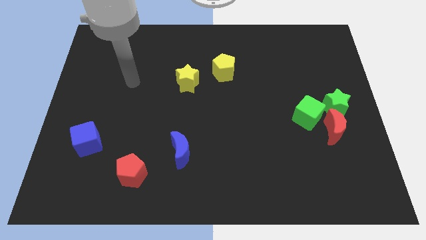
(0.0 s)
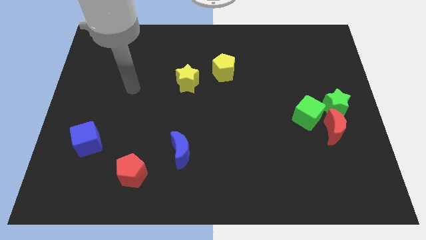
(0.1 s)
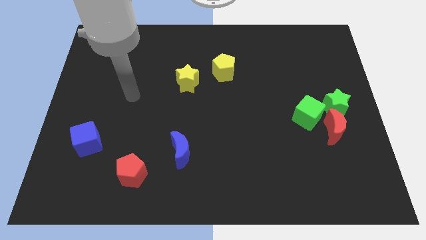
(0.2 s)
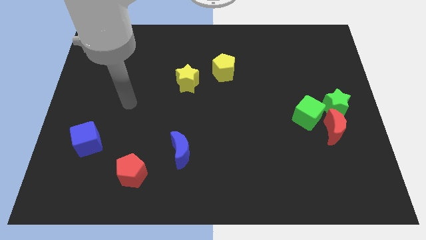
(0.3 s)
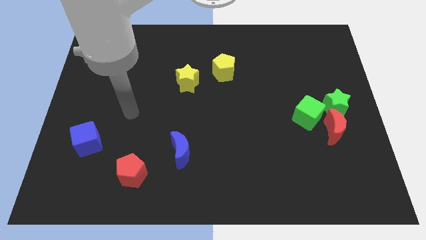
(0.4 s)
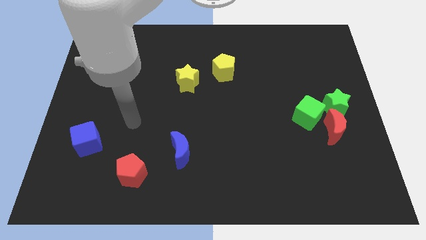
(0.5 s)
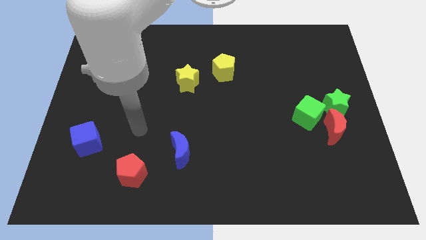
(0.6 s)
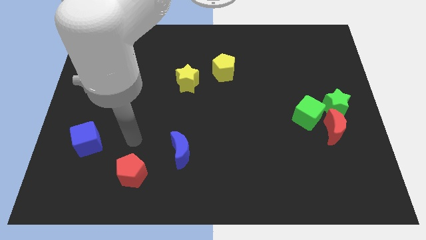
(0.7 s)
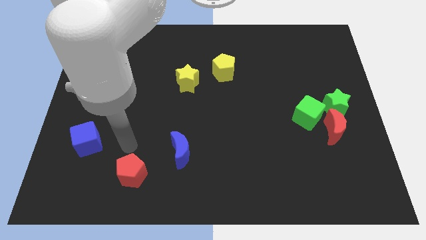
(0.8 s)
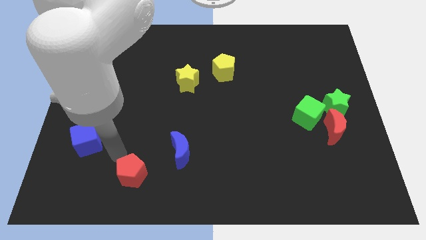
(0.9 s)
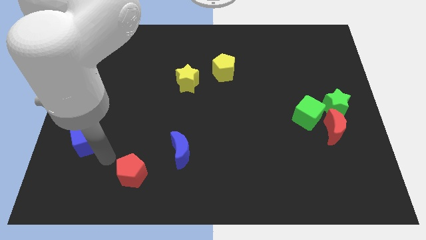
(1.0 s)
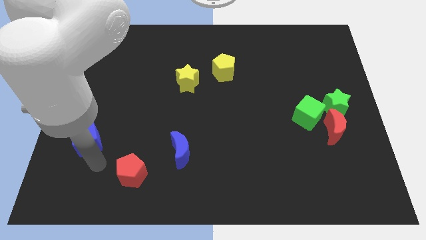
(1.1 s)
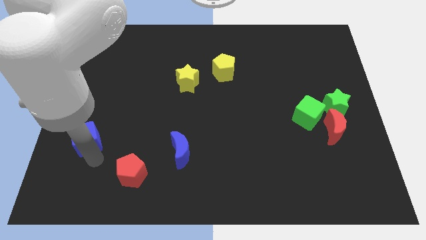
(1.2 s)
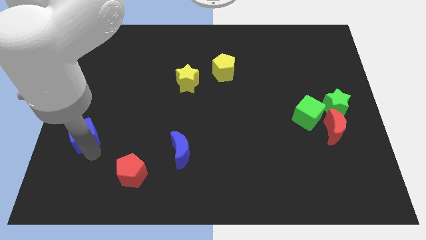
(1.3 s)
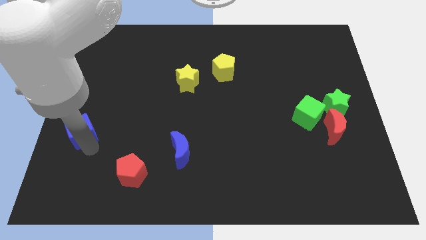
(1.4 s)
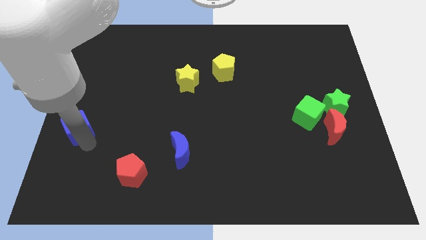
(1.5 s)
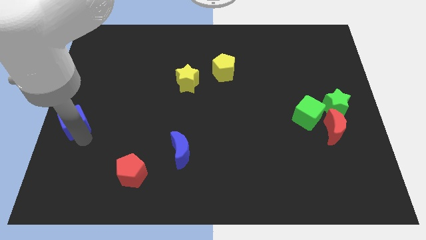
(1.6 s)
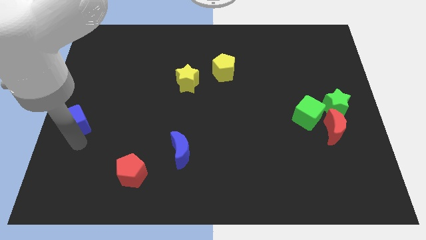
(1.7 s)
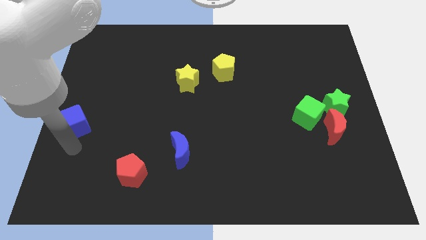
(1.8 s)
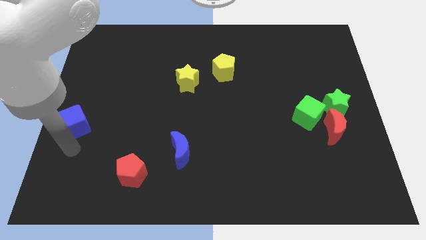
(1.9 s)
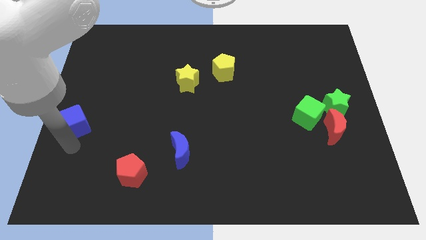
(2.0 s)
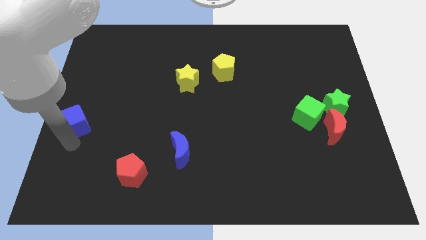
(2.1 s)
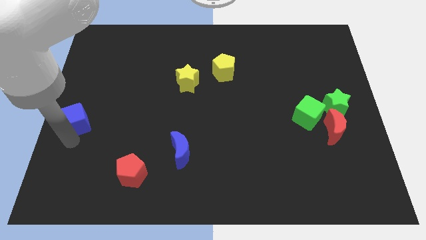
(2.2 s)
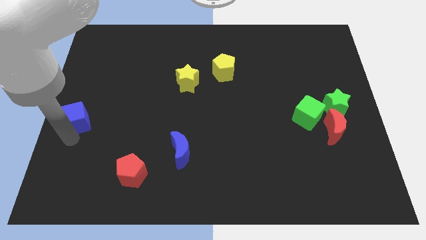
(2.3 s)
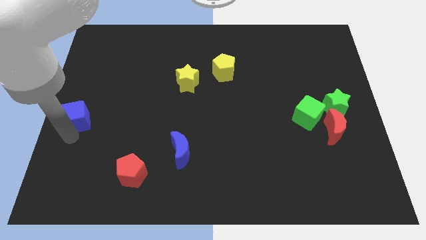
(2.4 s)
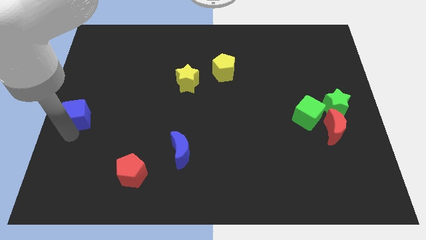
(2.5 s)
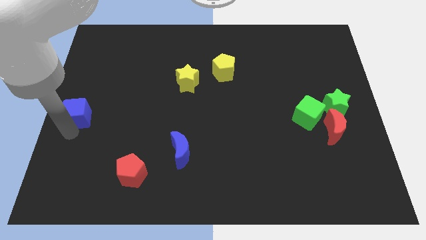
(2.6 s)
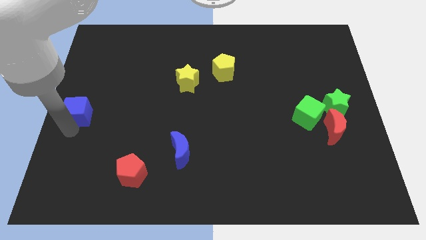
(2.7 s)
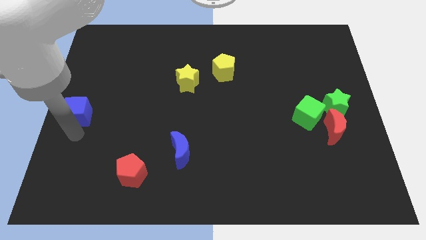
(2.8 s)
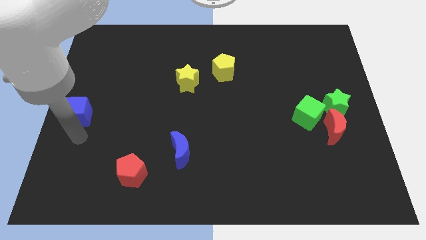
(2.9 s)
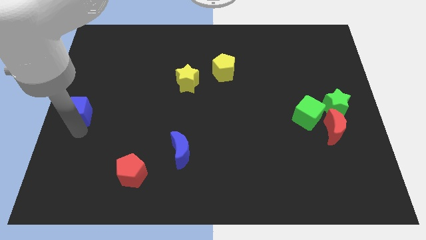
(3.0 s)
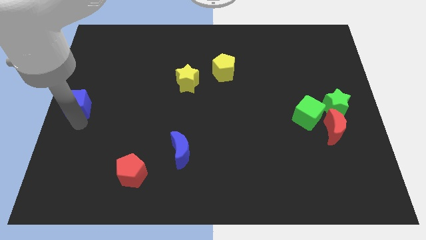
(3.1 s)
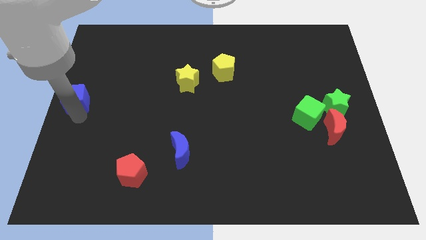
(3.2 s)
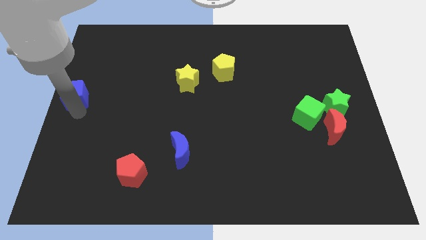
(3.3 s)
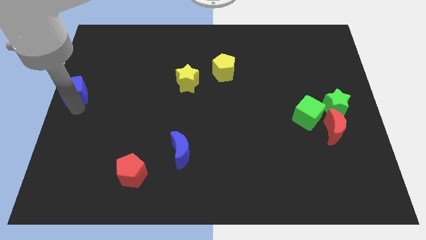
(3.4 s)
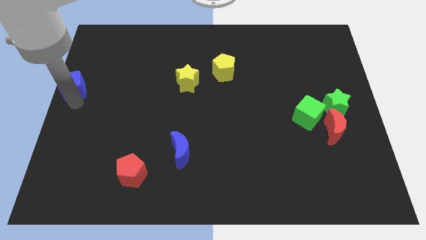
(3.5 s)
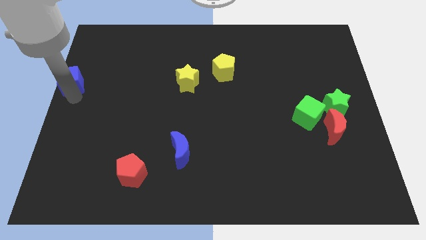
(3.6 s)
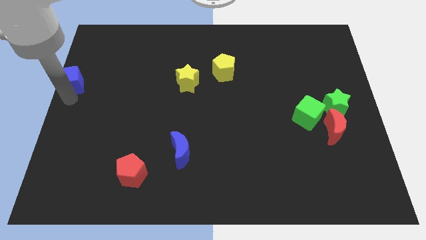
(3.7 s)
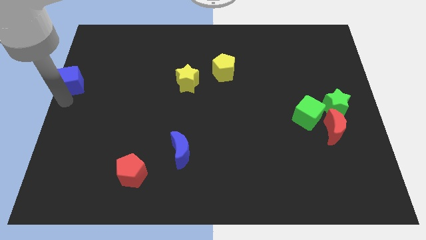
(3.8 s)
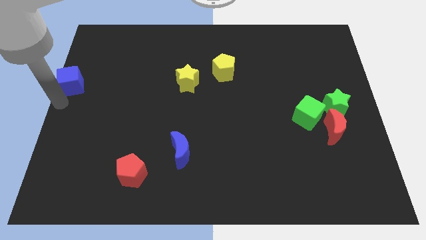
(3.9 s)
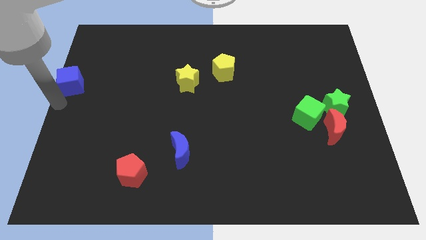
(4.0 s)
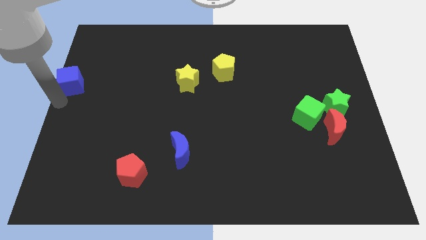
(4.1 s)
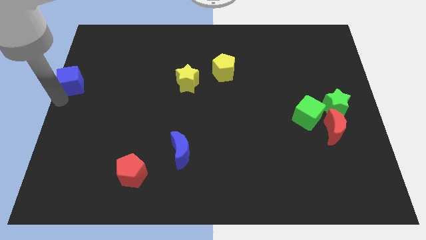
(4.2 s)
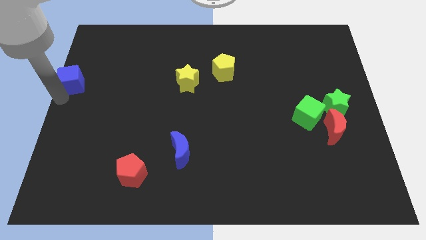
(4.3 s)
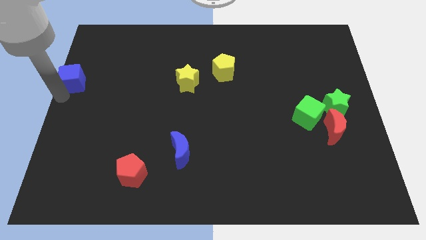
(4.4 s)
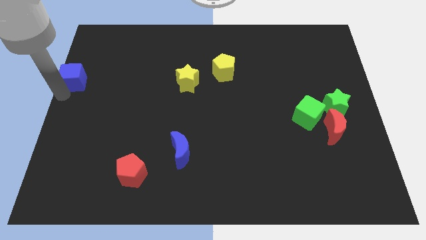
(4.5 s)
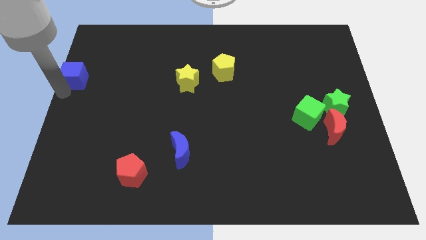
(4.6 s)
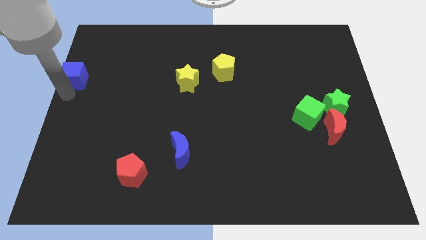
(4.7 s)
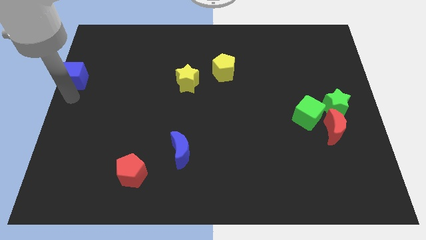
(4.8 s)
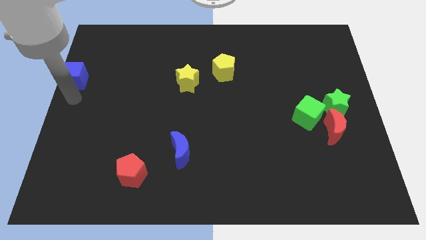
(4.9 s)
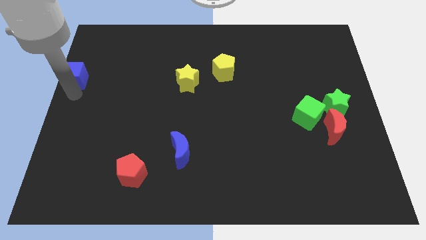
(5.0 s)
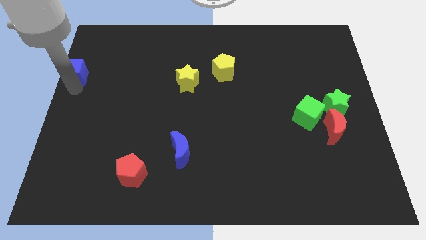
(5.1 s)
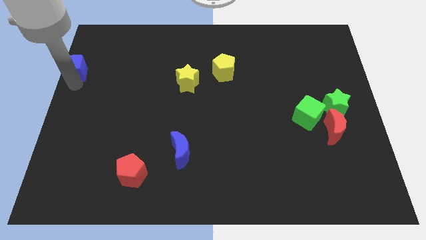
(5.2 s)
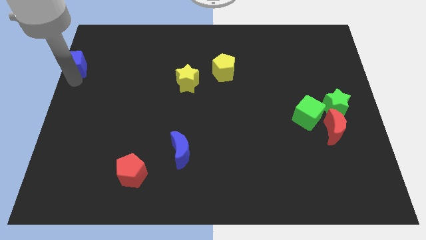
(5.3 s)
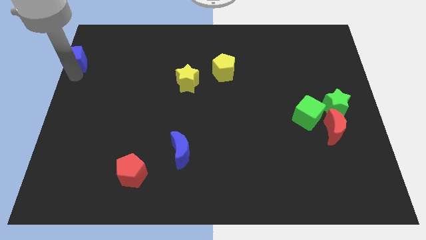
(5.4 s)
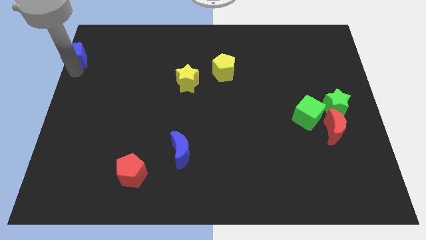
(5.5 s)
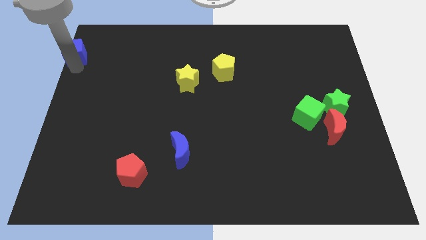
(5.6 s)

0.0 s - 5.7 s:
move the blue cube to the upper left corner
